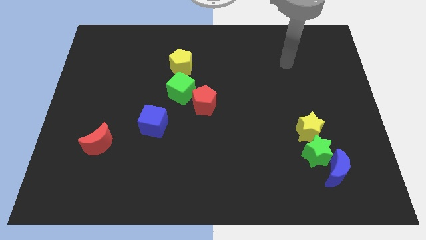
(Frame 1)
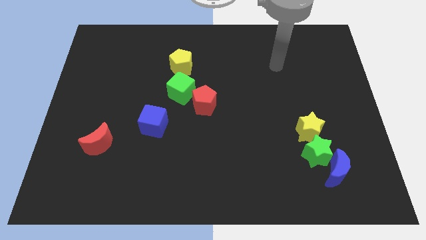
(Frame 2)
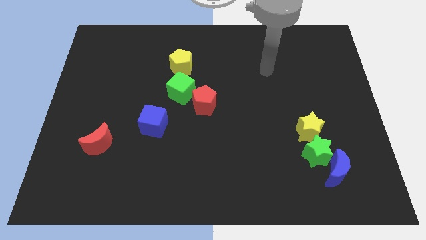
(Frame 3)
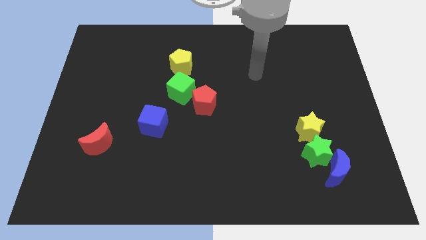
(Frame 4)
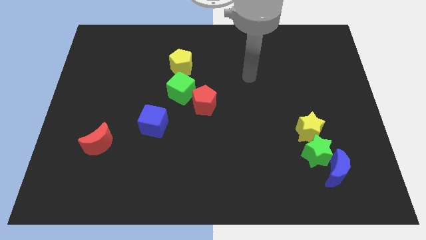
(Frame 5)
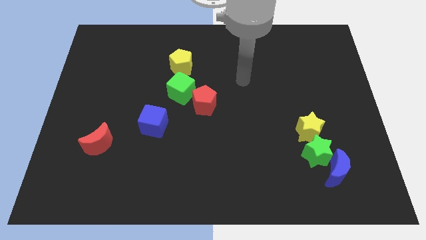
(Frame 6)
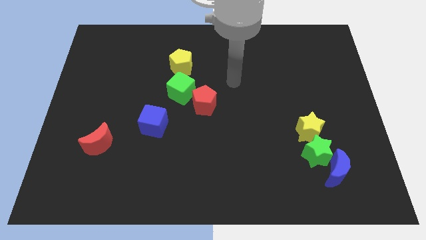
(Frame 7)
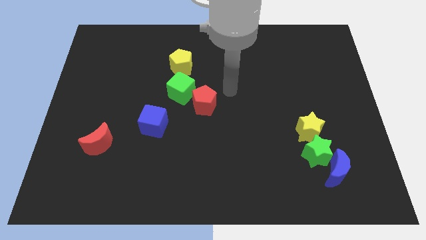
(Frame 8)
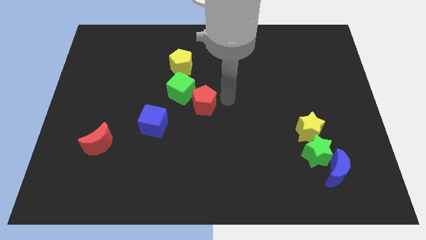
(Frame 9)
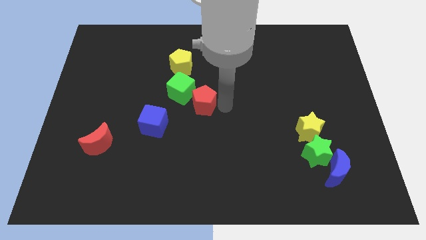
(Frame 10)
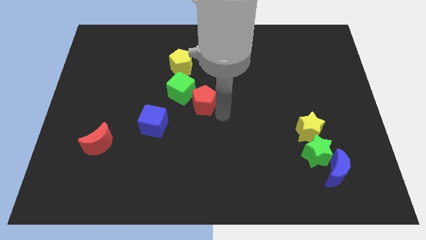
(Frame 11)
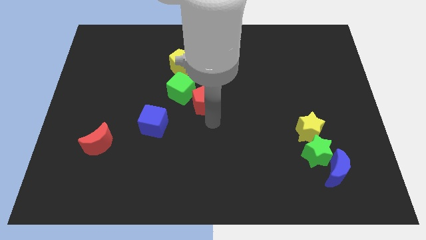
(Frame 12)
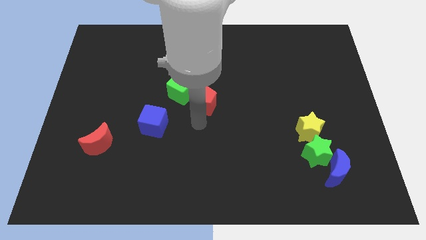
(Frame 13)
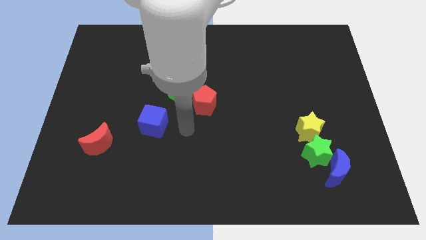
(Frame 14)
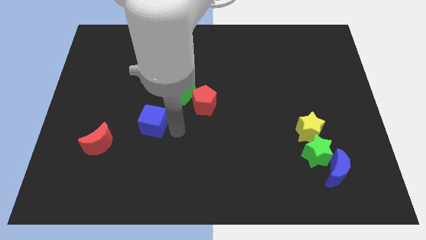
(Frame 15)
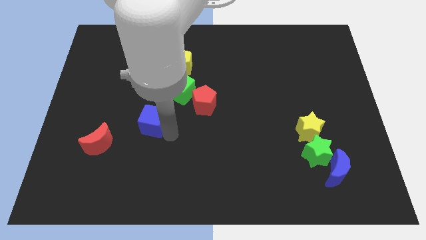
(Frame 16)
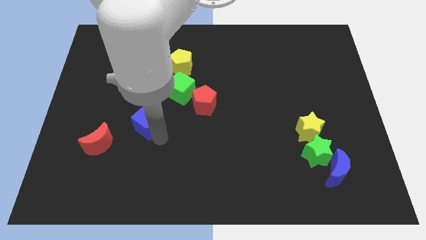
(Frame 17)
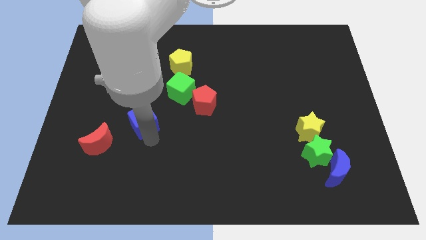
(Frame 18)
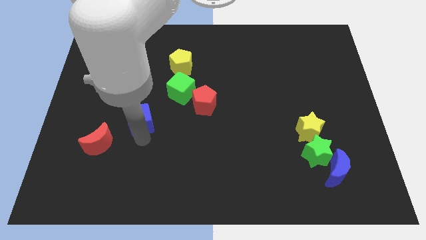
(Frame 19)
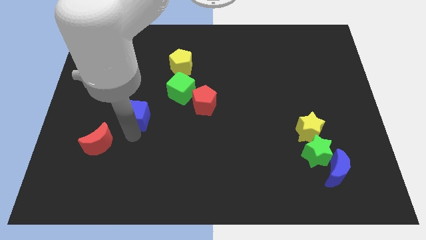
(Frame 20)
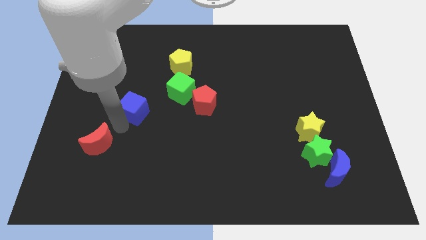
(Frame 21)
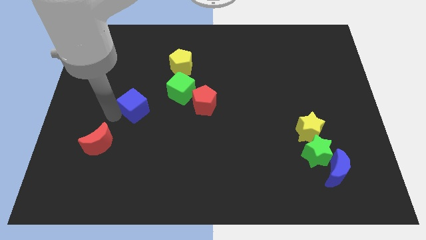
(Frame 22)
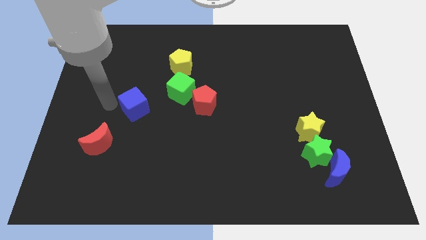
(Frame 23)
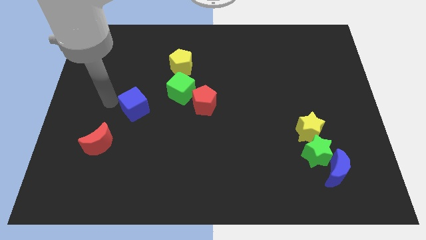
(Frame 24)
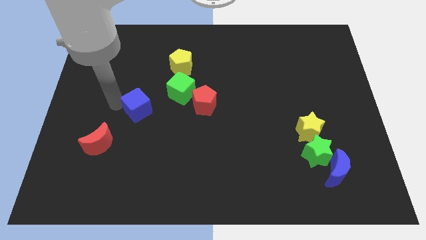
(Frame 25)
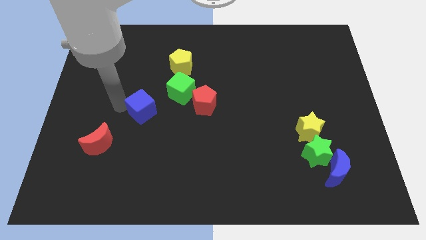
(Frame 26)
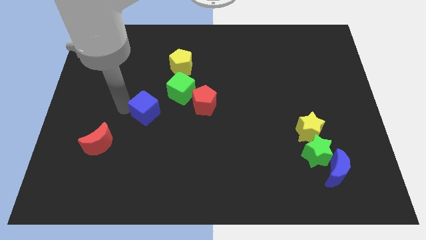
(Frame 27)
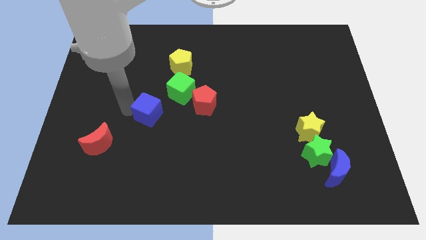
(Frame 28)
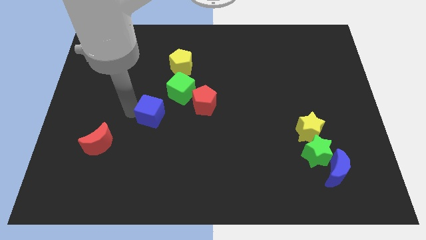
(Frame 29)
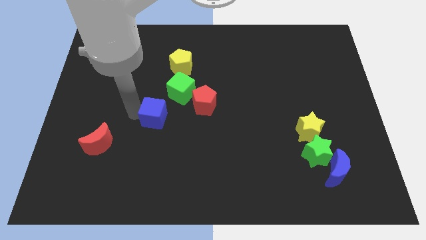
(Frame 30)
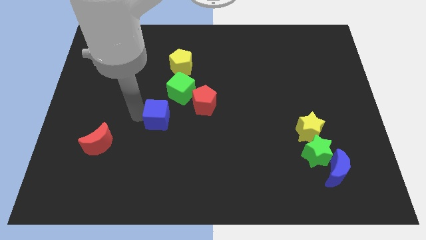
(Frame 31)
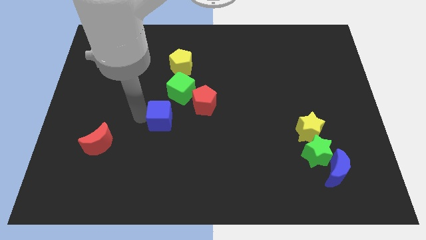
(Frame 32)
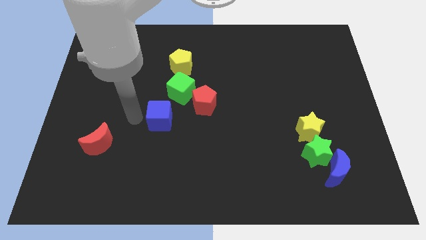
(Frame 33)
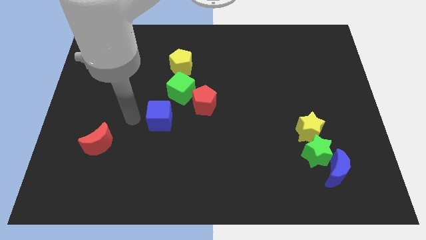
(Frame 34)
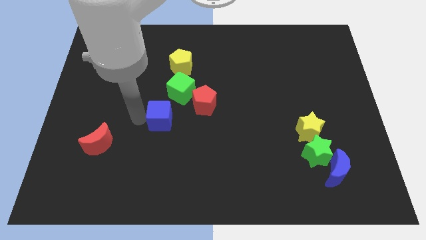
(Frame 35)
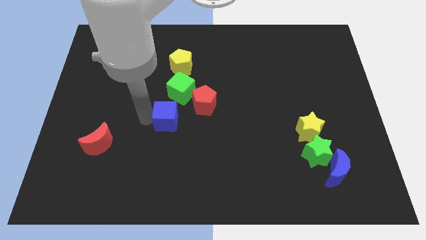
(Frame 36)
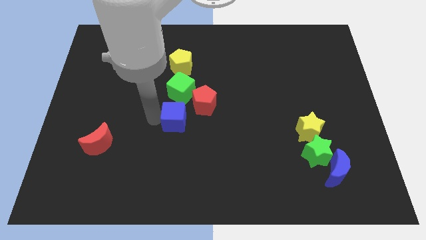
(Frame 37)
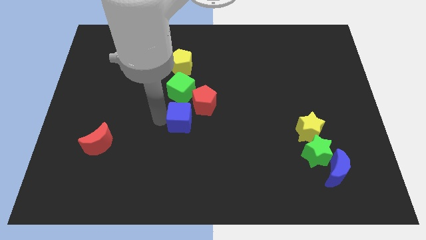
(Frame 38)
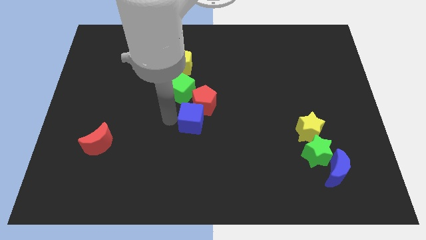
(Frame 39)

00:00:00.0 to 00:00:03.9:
move the blue cube slightly right

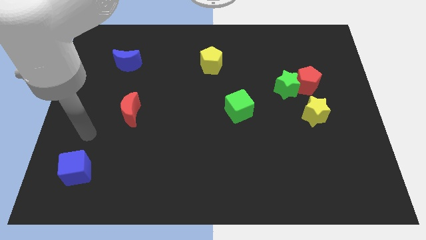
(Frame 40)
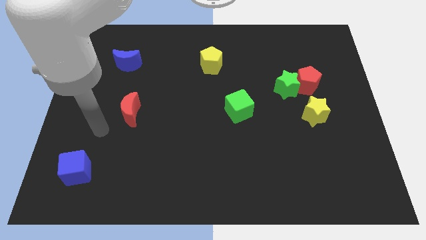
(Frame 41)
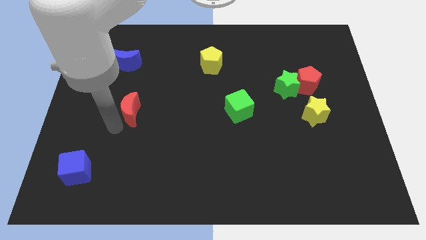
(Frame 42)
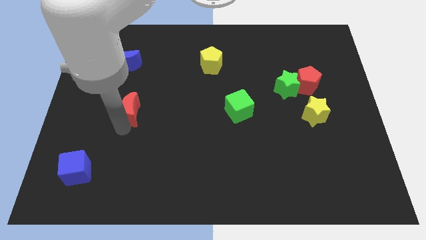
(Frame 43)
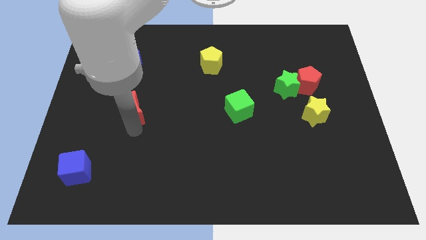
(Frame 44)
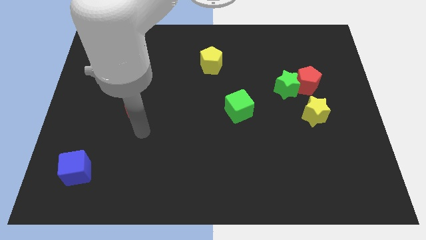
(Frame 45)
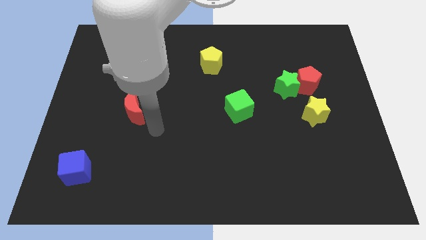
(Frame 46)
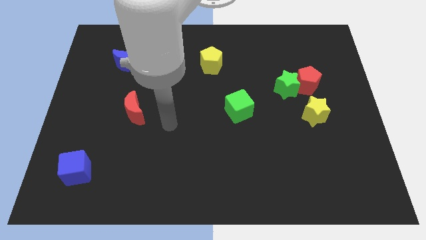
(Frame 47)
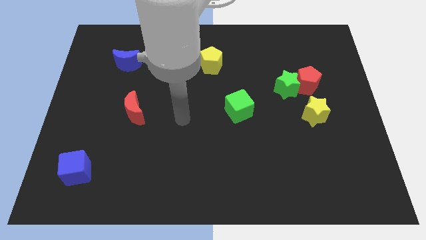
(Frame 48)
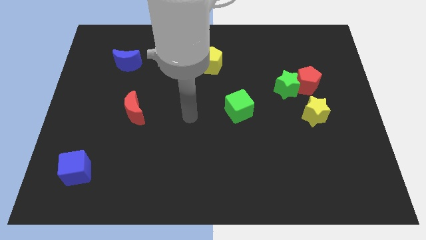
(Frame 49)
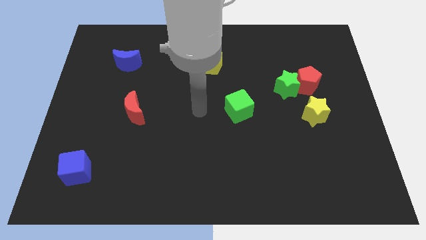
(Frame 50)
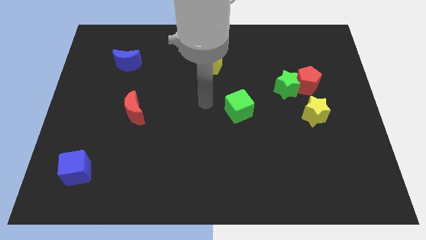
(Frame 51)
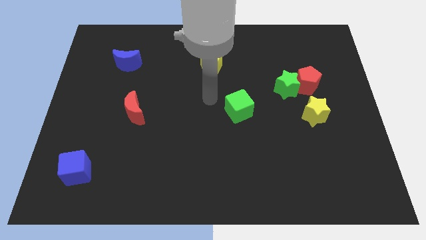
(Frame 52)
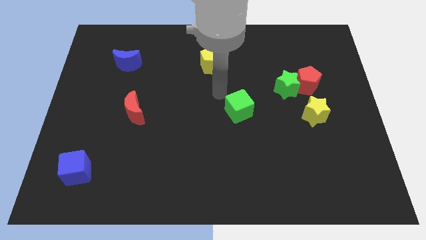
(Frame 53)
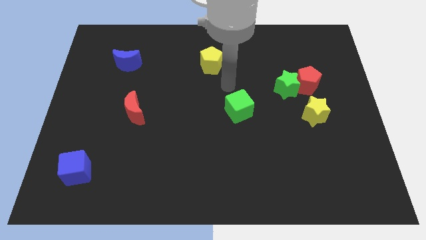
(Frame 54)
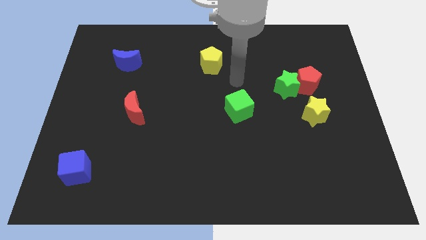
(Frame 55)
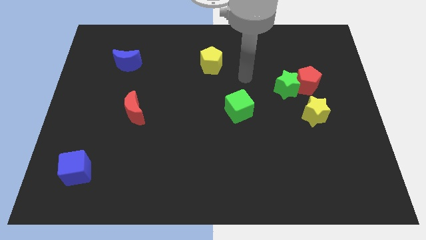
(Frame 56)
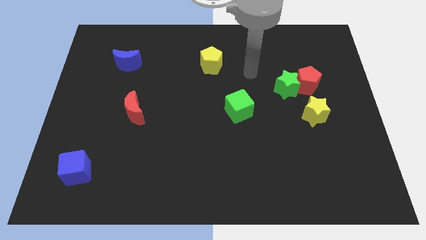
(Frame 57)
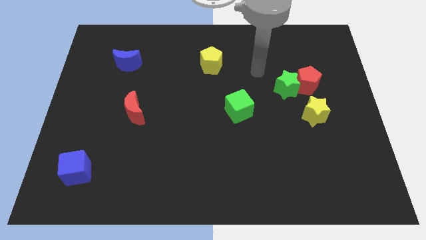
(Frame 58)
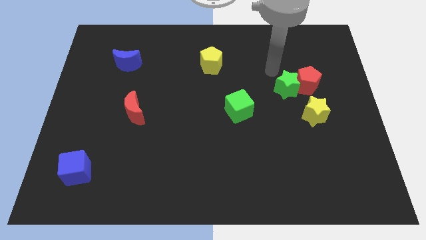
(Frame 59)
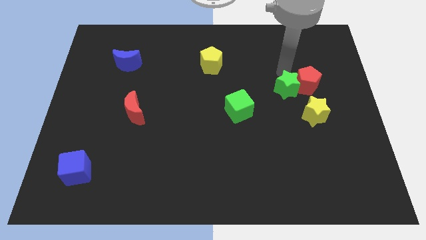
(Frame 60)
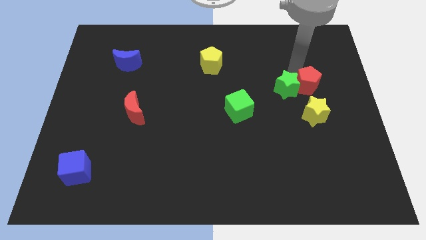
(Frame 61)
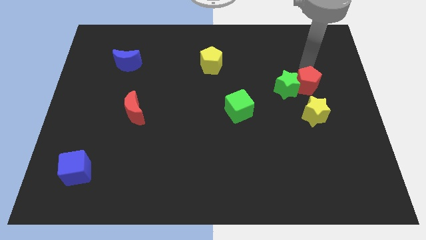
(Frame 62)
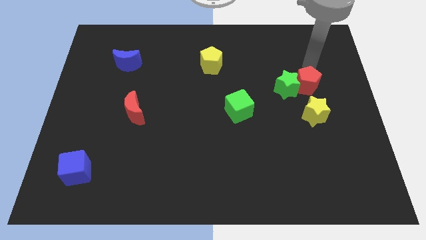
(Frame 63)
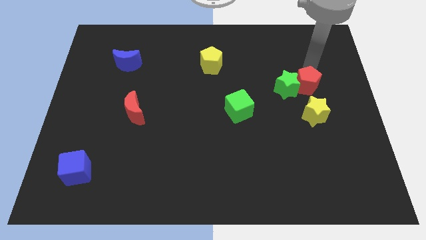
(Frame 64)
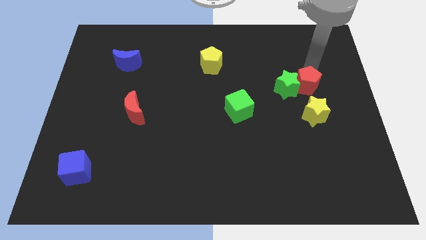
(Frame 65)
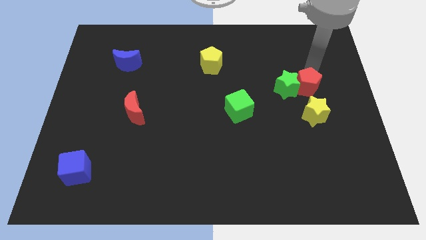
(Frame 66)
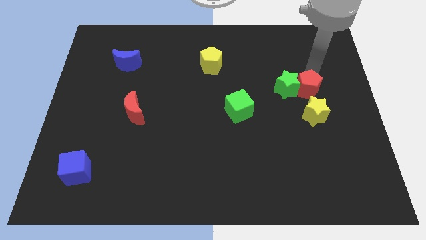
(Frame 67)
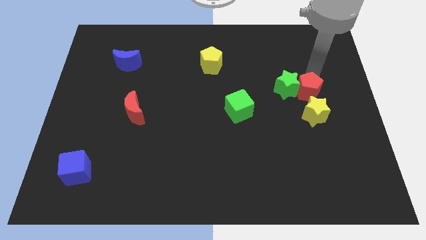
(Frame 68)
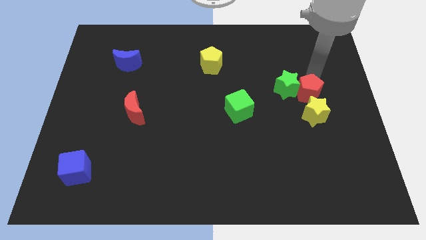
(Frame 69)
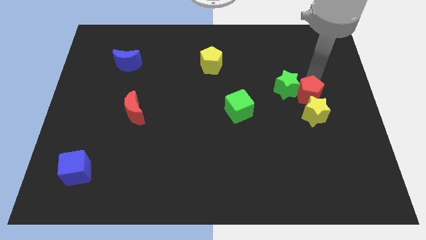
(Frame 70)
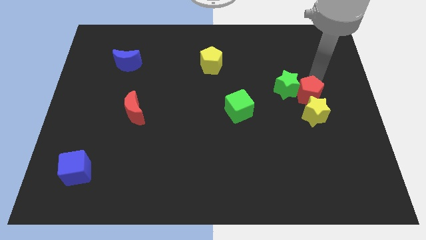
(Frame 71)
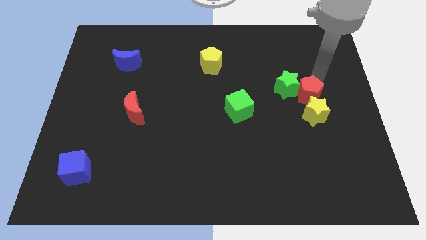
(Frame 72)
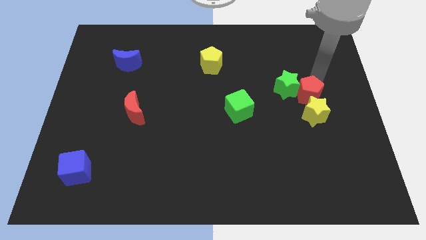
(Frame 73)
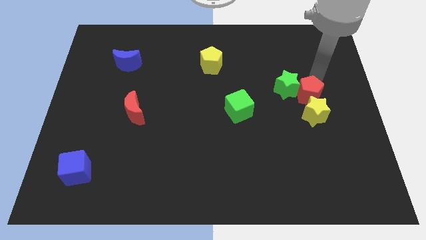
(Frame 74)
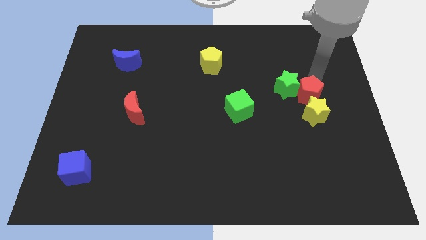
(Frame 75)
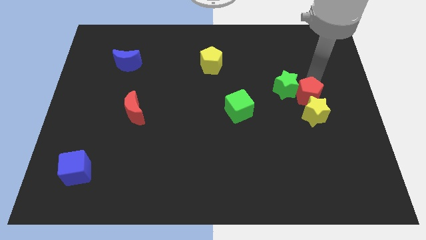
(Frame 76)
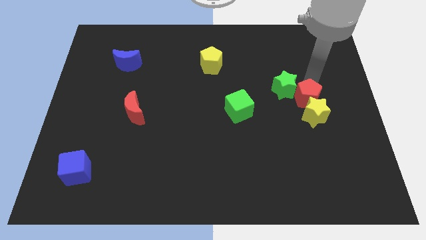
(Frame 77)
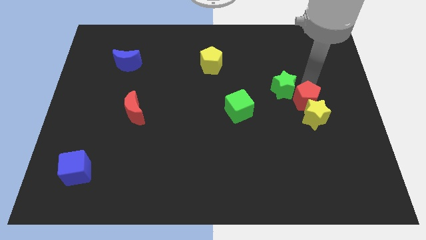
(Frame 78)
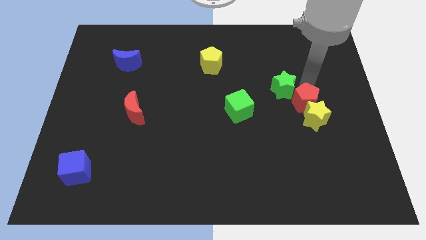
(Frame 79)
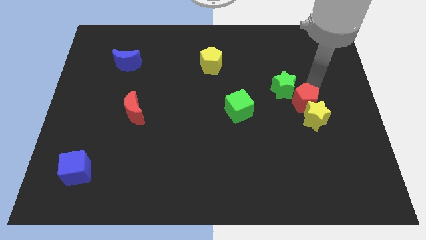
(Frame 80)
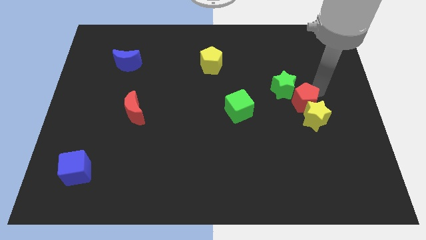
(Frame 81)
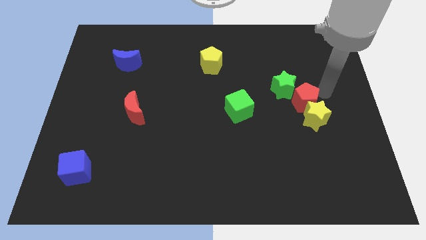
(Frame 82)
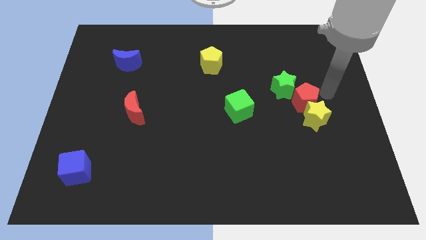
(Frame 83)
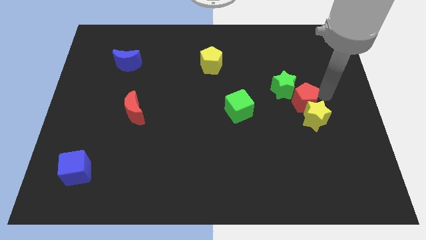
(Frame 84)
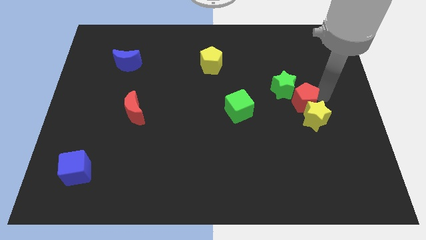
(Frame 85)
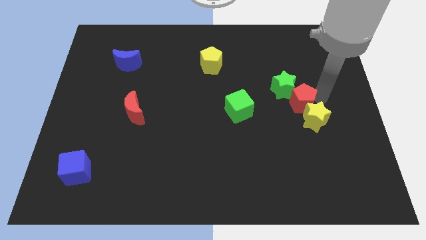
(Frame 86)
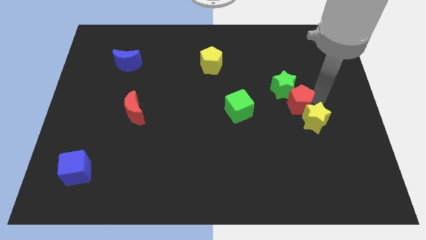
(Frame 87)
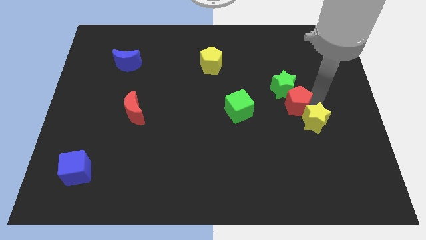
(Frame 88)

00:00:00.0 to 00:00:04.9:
slide the red pentagon diagonally downwards and to the left slightly
